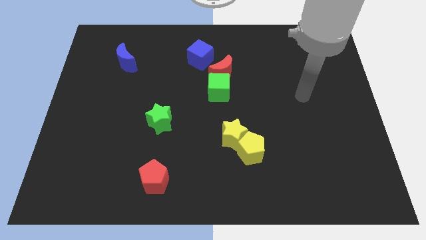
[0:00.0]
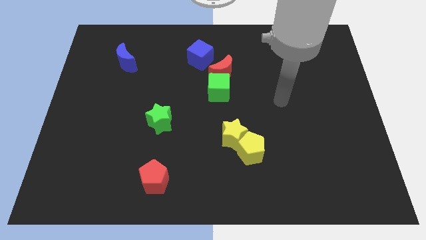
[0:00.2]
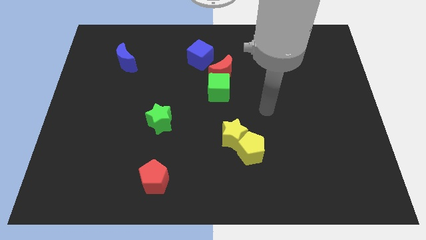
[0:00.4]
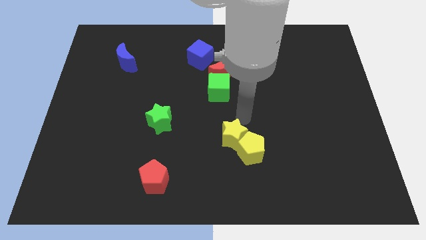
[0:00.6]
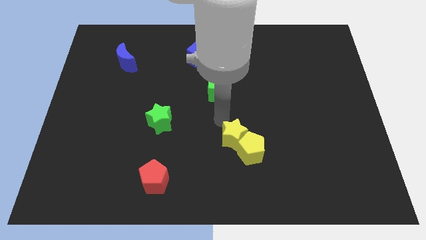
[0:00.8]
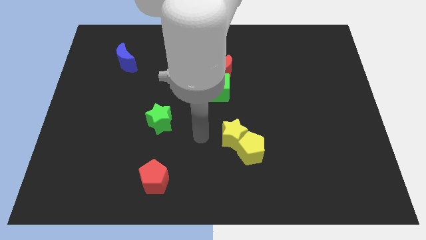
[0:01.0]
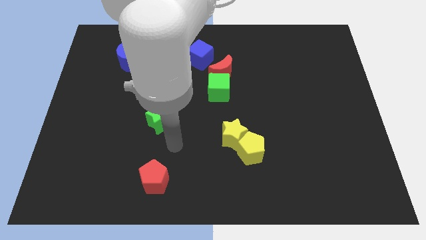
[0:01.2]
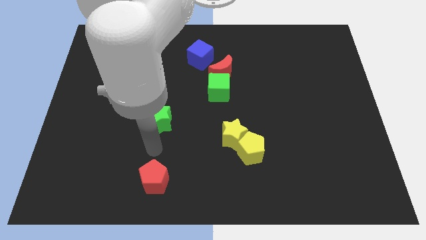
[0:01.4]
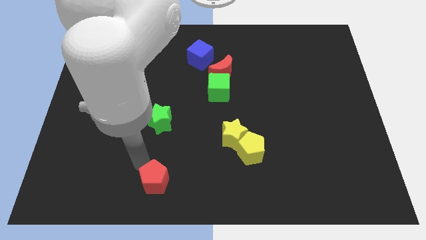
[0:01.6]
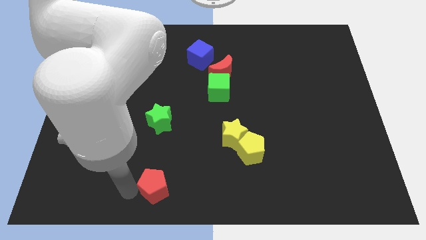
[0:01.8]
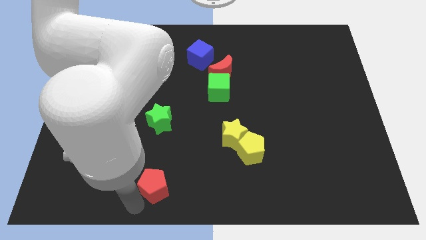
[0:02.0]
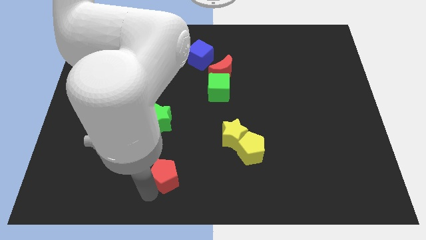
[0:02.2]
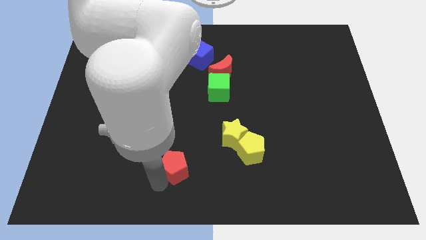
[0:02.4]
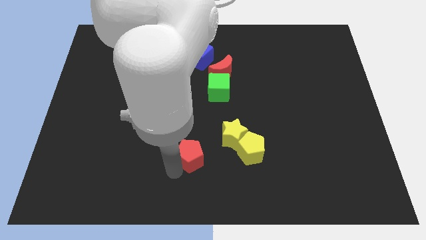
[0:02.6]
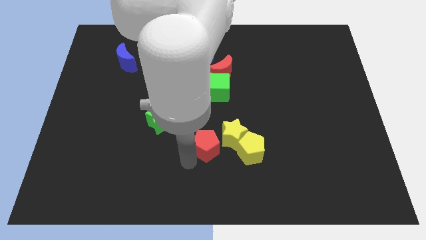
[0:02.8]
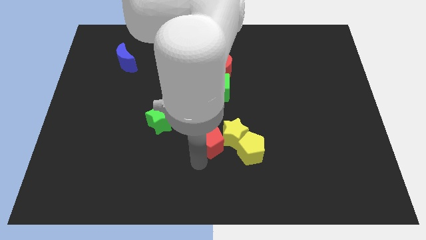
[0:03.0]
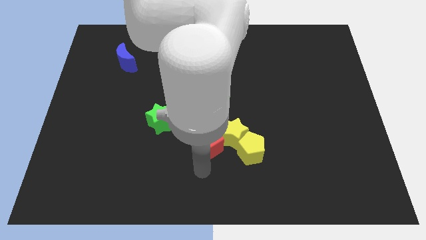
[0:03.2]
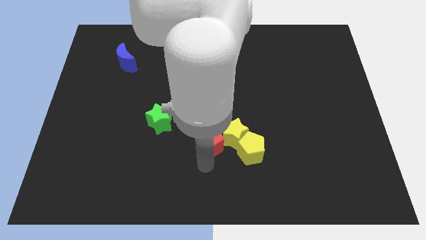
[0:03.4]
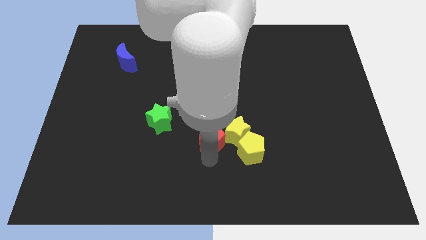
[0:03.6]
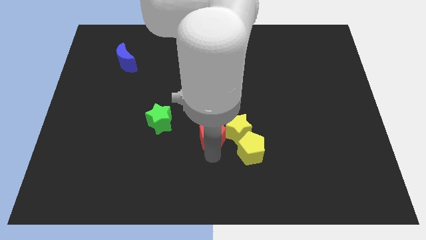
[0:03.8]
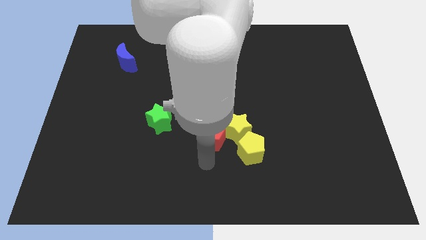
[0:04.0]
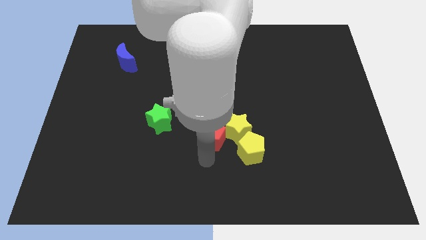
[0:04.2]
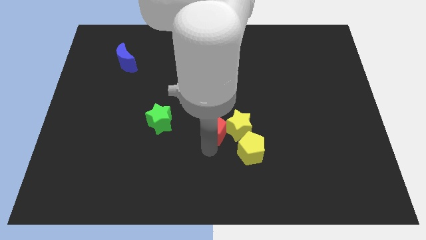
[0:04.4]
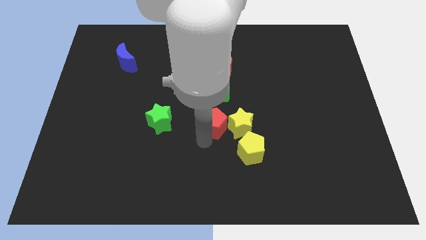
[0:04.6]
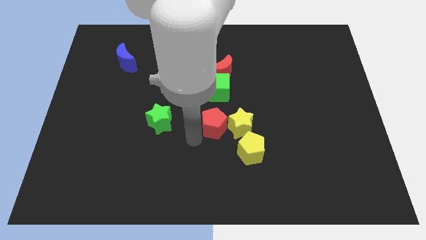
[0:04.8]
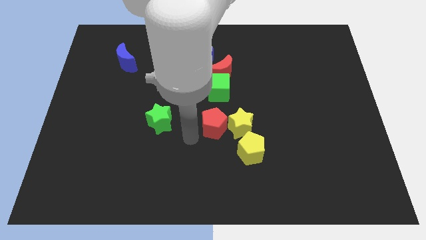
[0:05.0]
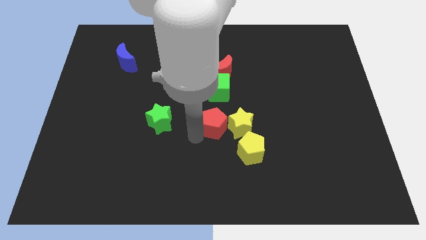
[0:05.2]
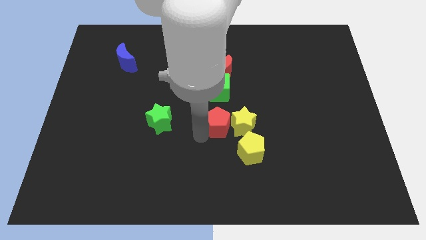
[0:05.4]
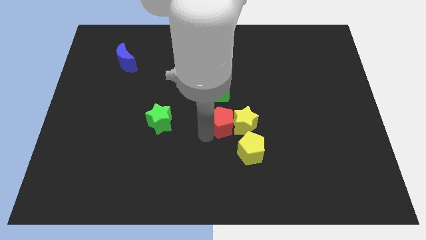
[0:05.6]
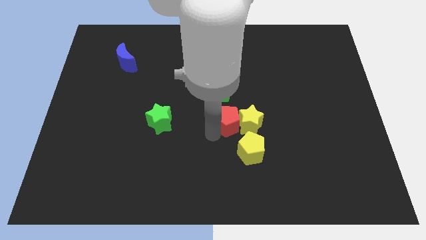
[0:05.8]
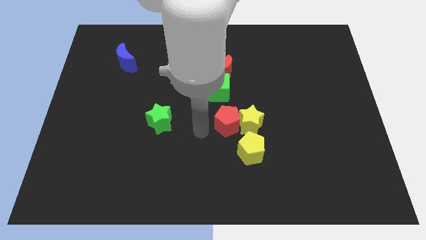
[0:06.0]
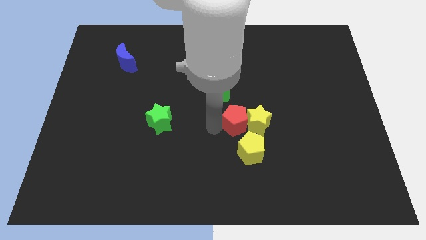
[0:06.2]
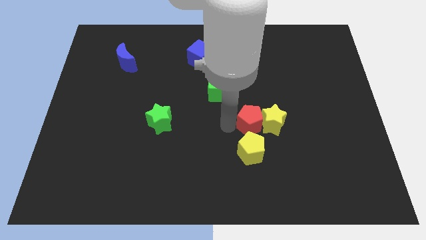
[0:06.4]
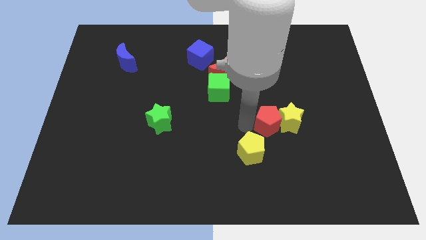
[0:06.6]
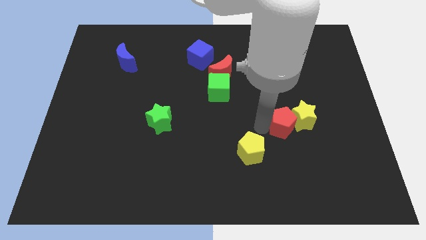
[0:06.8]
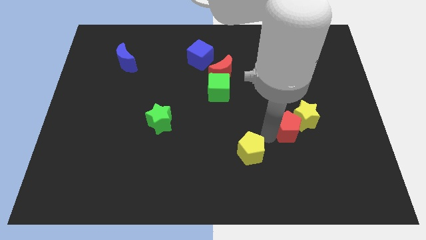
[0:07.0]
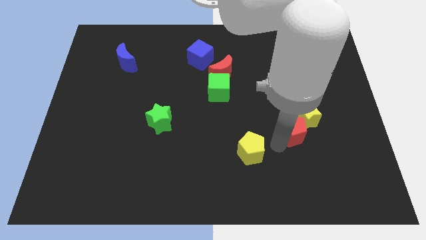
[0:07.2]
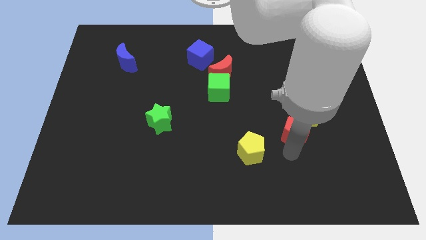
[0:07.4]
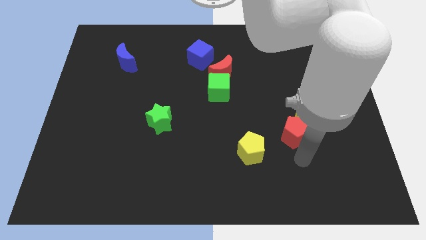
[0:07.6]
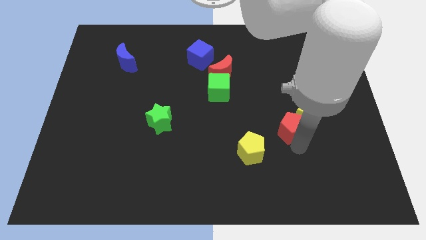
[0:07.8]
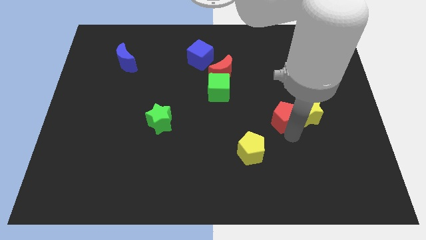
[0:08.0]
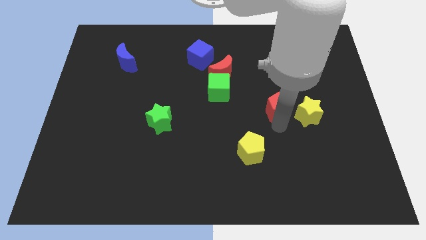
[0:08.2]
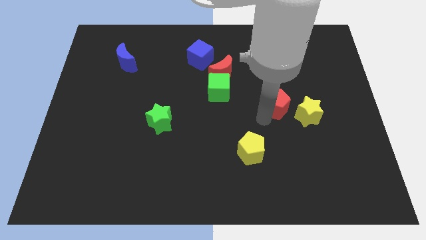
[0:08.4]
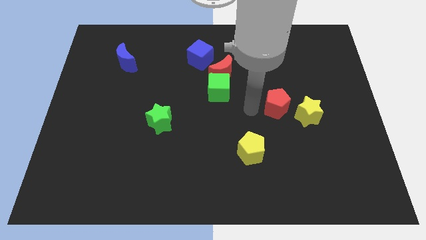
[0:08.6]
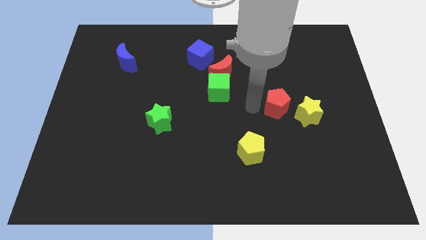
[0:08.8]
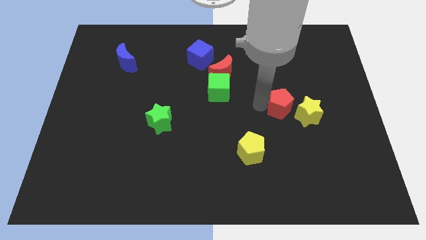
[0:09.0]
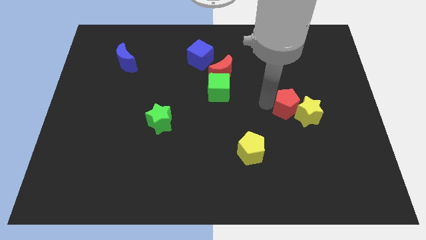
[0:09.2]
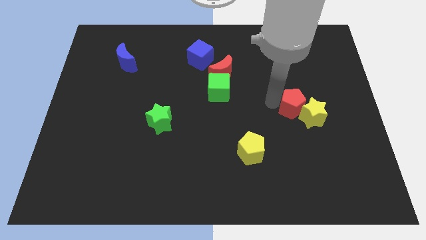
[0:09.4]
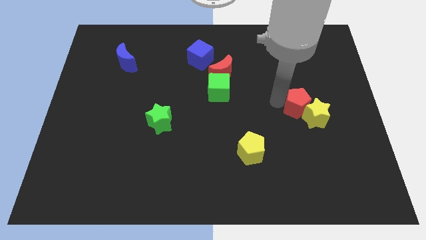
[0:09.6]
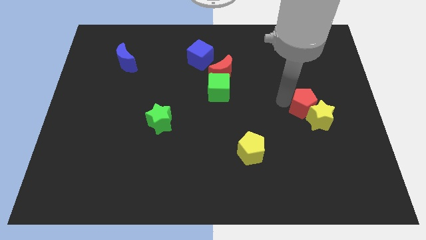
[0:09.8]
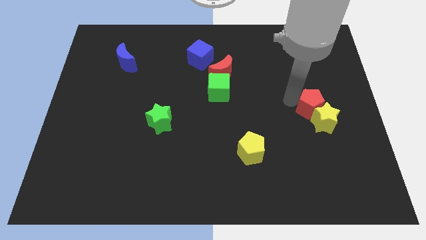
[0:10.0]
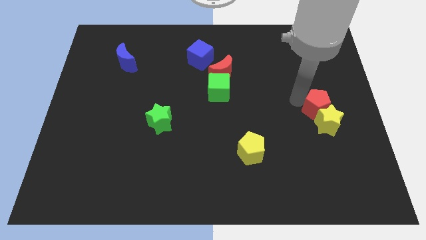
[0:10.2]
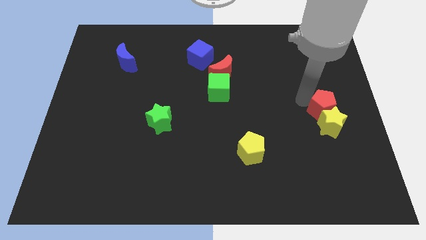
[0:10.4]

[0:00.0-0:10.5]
move the red pentagon to the right side
